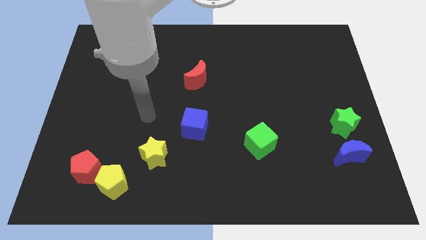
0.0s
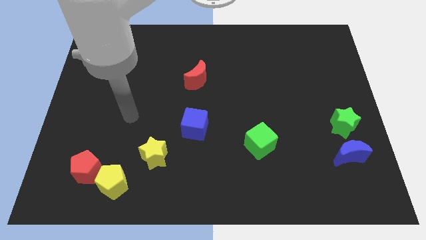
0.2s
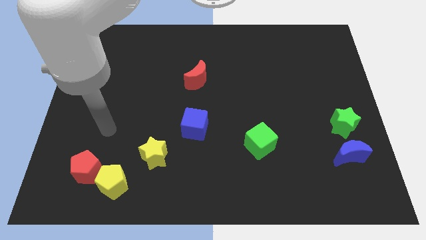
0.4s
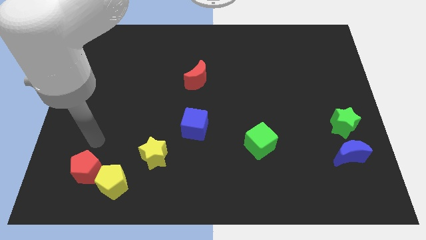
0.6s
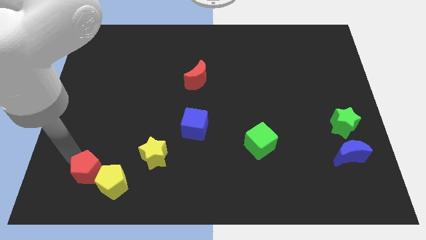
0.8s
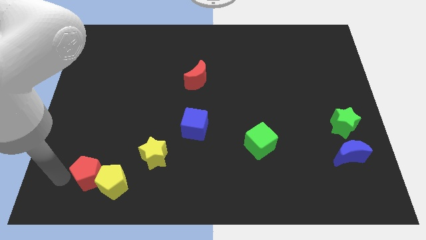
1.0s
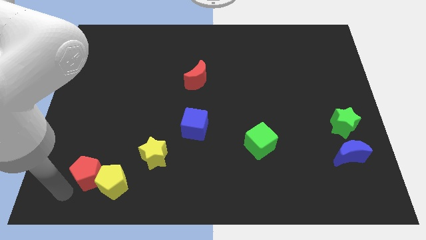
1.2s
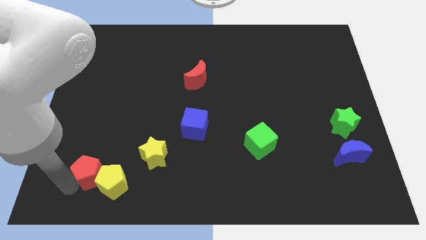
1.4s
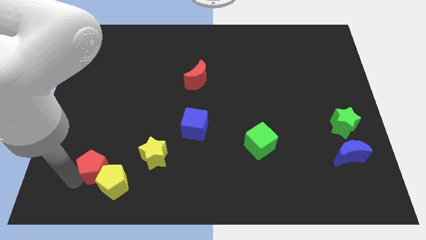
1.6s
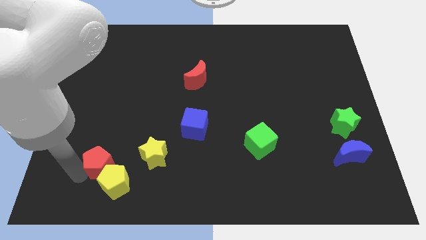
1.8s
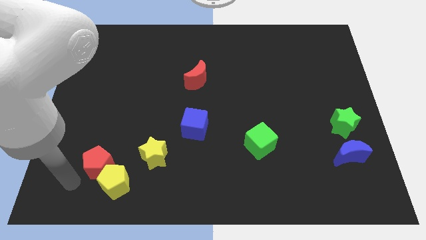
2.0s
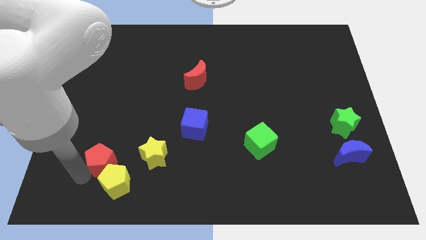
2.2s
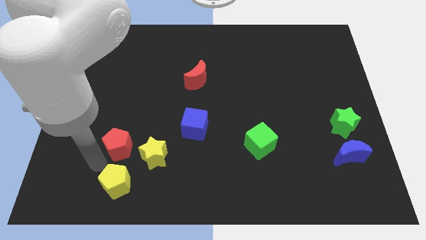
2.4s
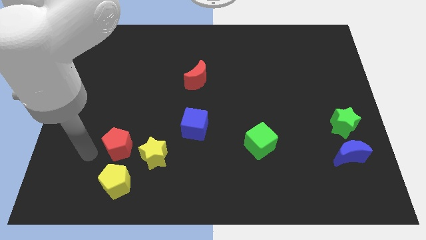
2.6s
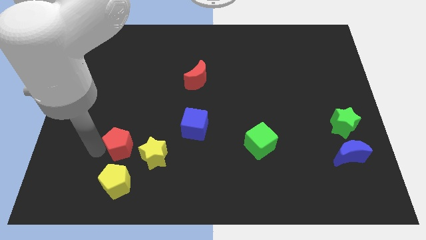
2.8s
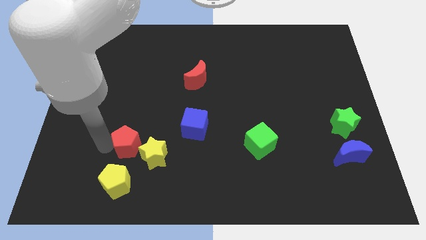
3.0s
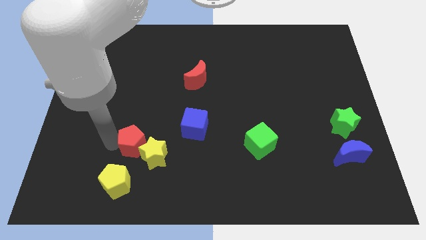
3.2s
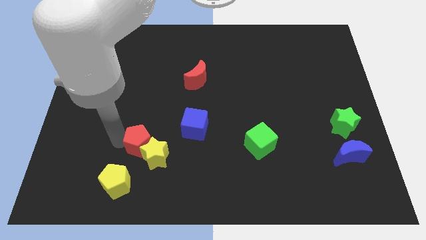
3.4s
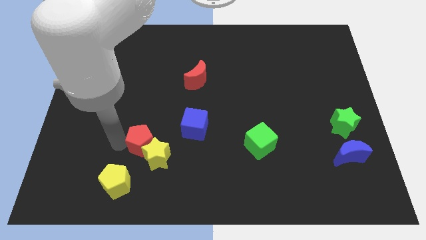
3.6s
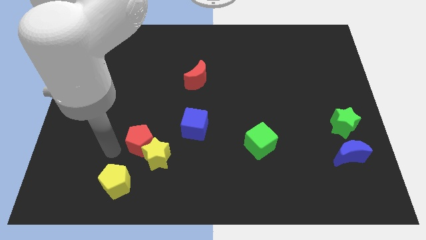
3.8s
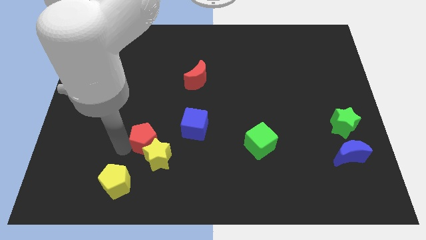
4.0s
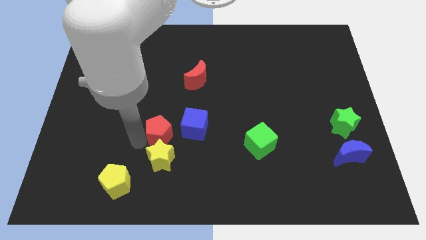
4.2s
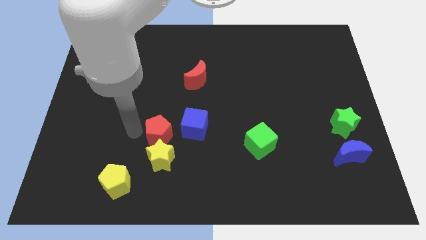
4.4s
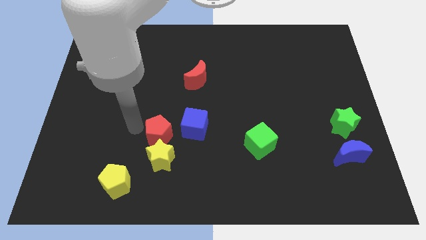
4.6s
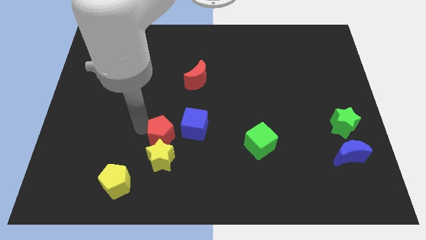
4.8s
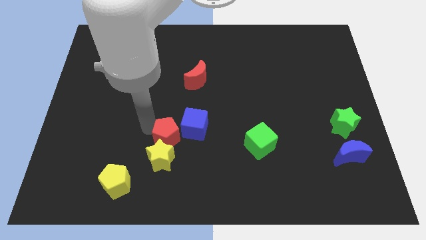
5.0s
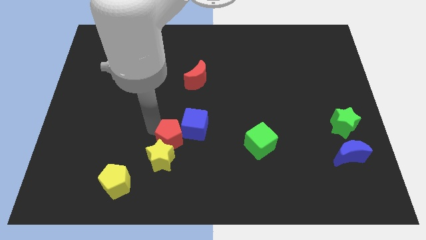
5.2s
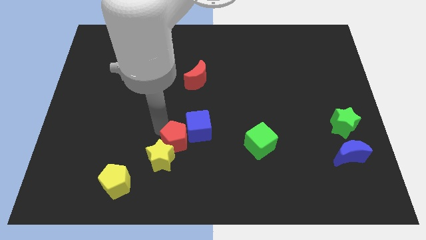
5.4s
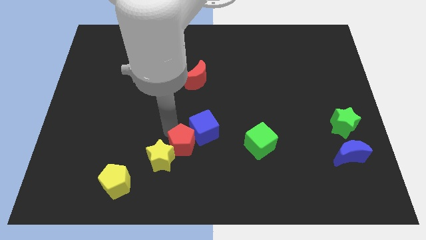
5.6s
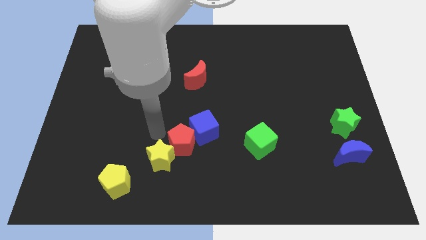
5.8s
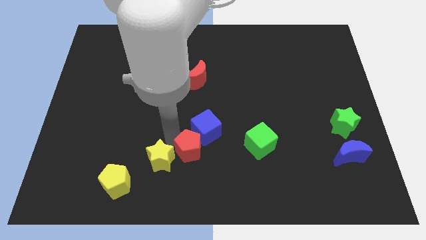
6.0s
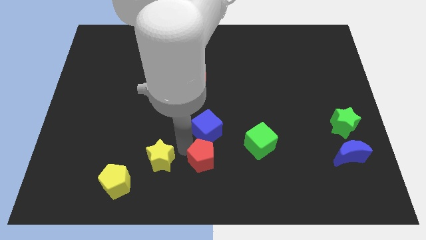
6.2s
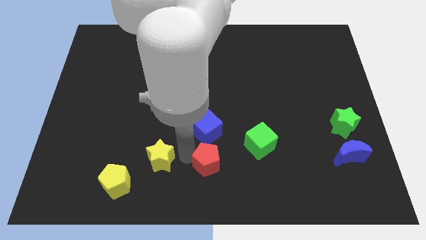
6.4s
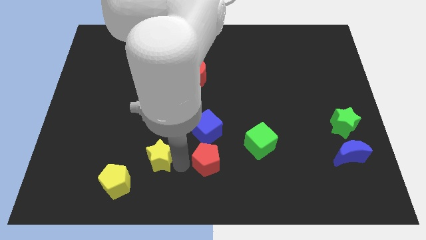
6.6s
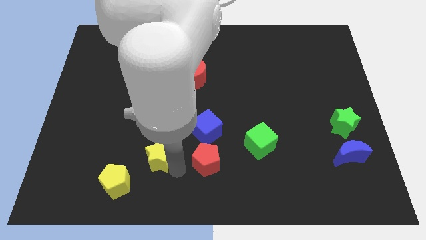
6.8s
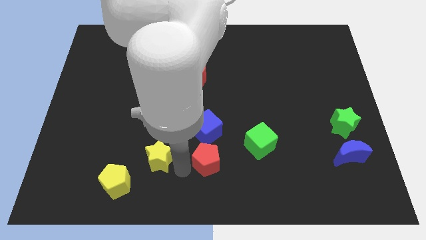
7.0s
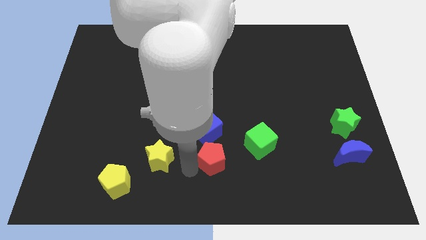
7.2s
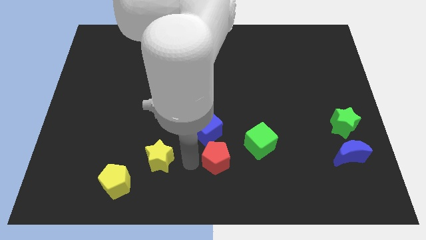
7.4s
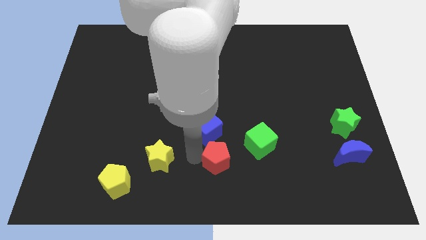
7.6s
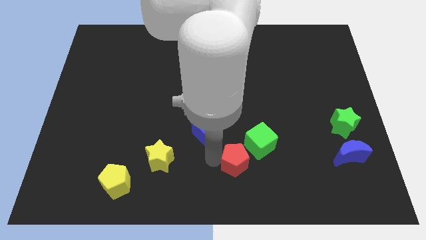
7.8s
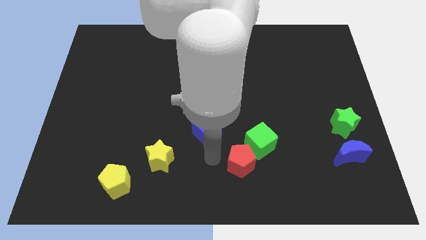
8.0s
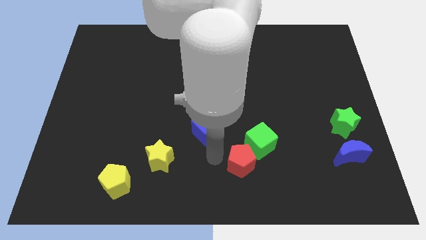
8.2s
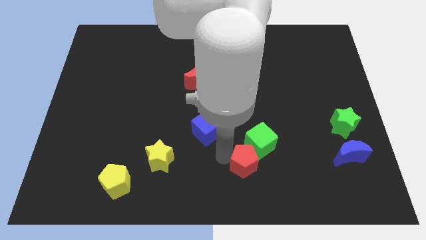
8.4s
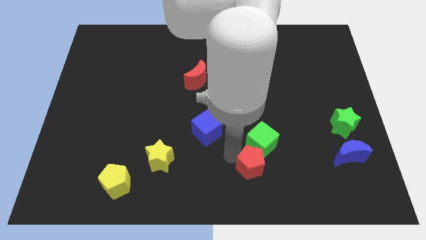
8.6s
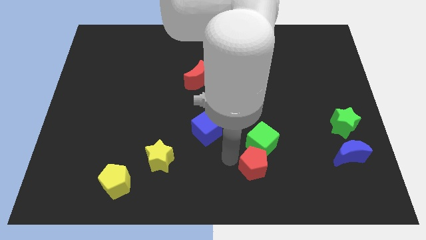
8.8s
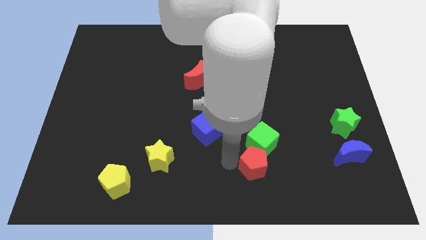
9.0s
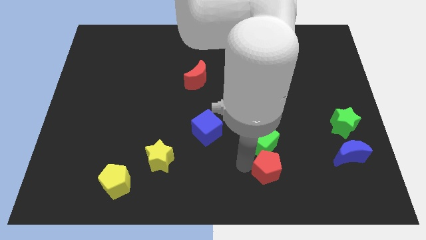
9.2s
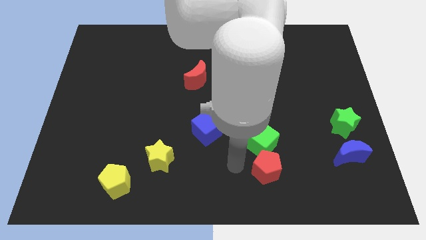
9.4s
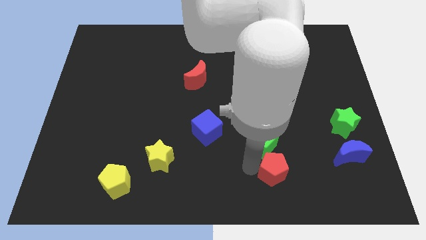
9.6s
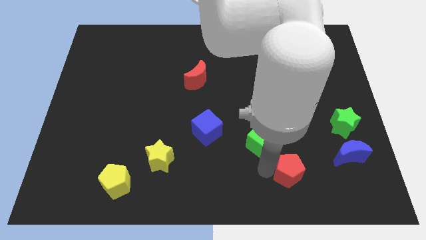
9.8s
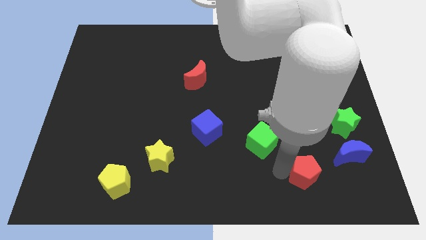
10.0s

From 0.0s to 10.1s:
push the red pentagon diagonally down and to the left of the blue moon

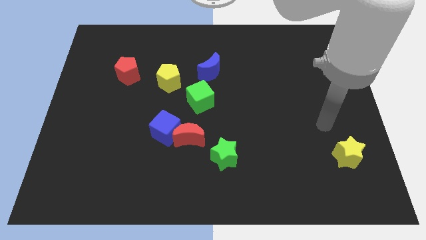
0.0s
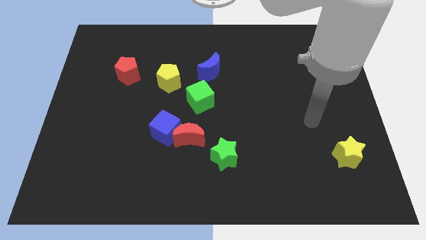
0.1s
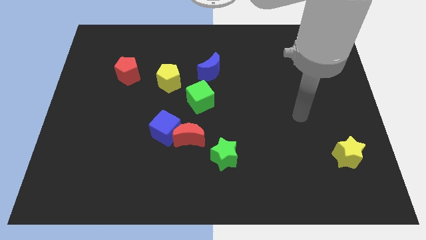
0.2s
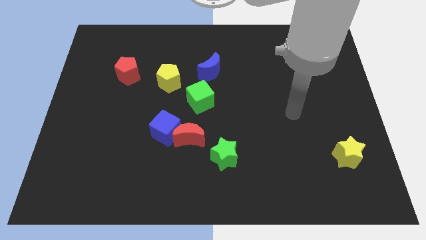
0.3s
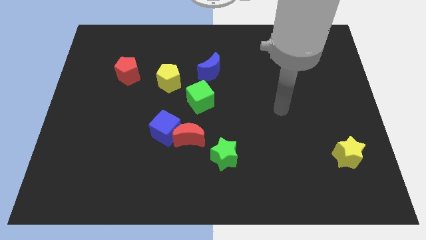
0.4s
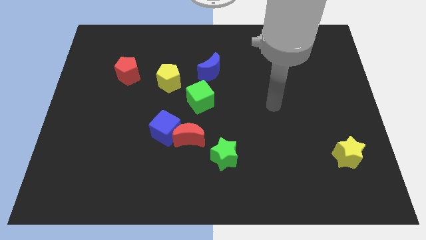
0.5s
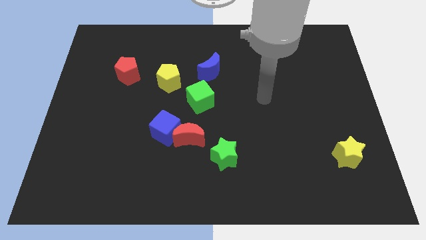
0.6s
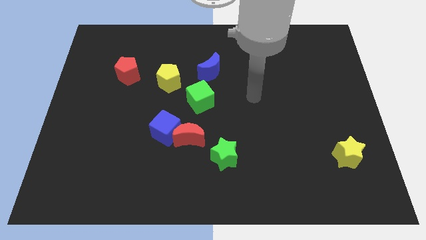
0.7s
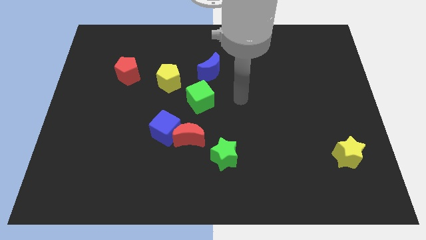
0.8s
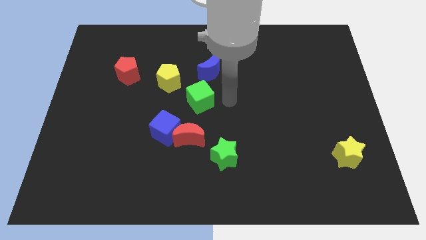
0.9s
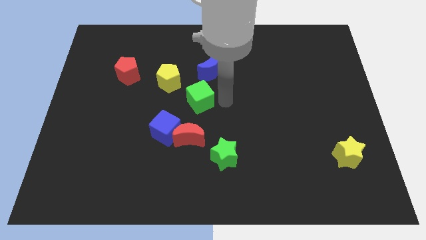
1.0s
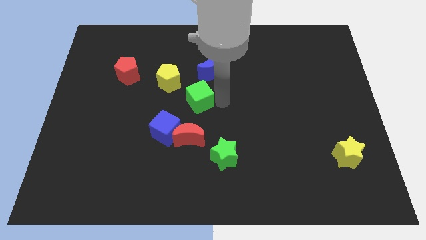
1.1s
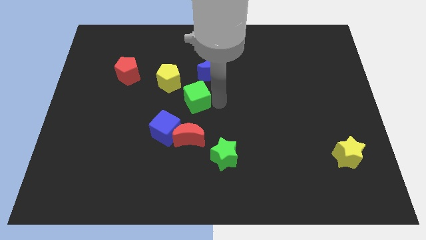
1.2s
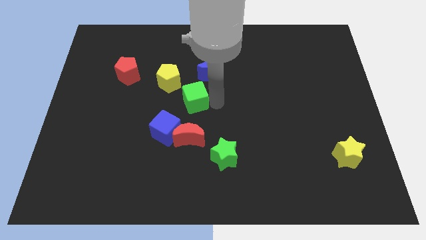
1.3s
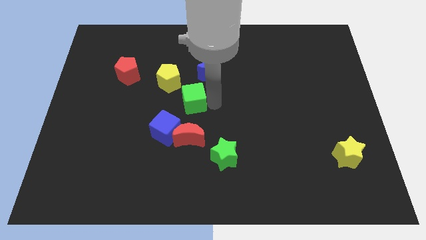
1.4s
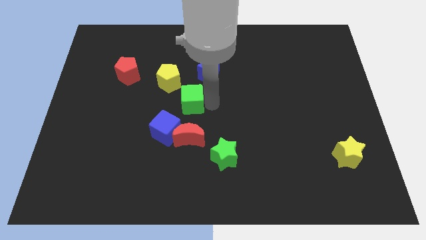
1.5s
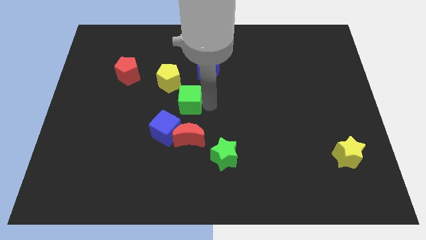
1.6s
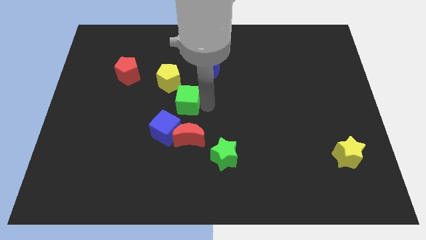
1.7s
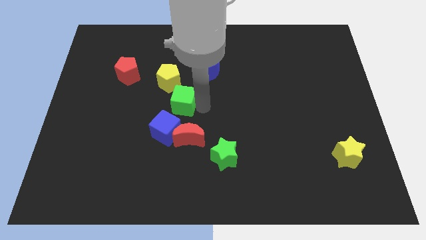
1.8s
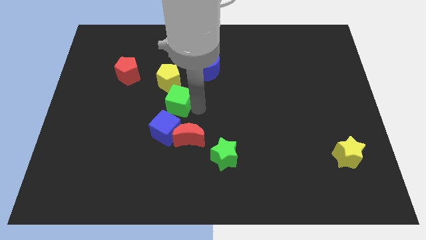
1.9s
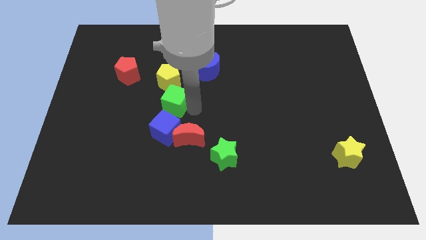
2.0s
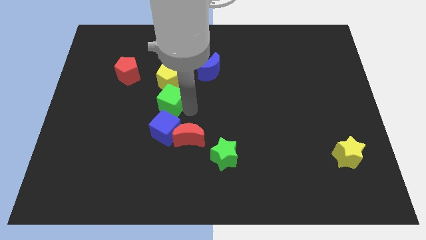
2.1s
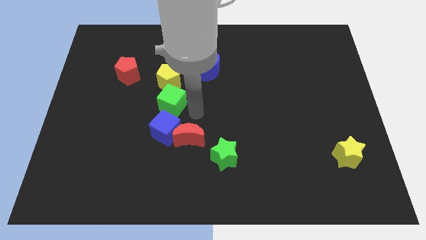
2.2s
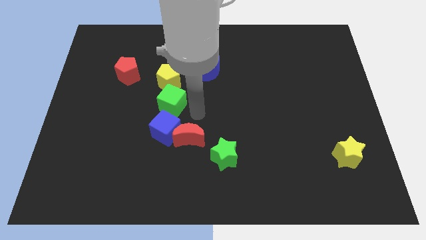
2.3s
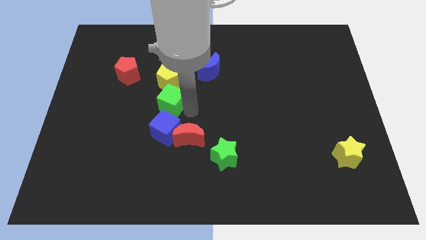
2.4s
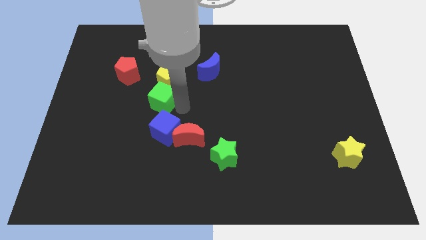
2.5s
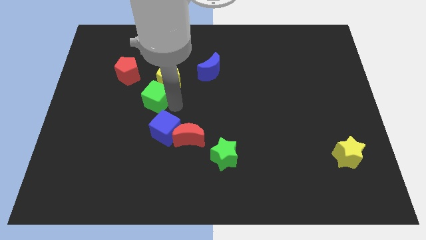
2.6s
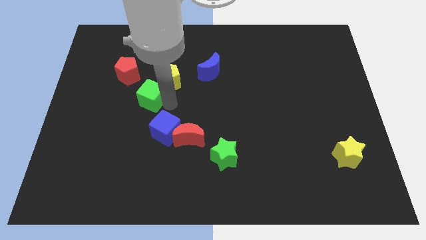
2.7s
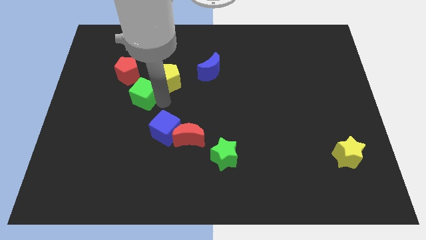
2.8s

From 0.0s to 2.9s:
slide the green cube just left of the yellow pentagon
